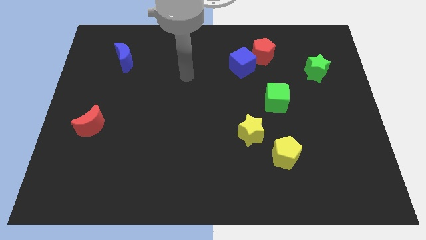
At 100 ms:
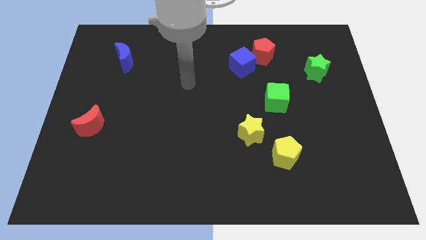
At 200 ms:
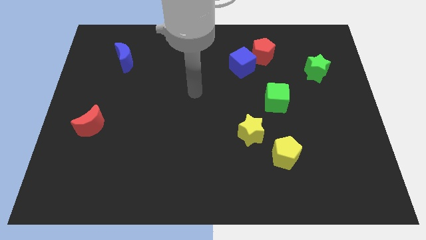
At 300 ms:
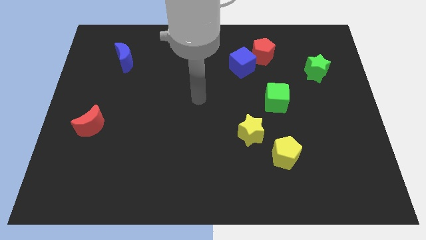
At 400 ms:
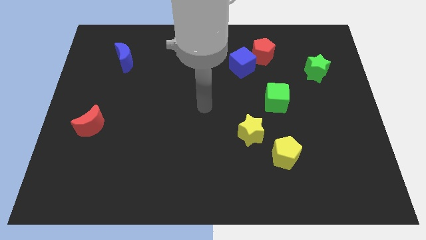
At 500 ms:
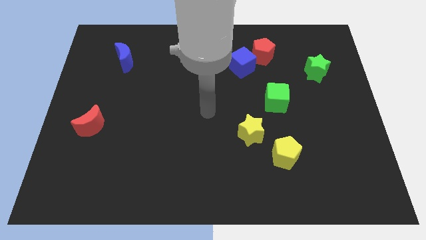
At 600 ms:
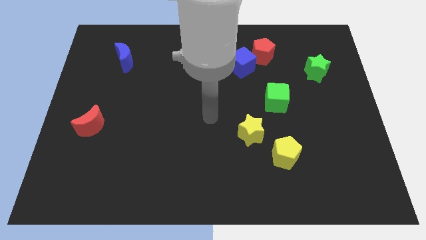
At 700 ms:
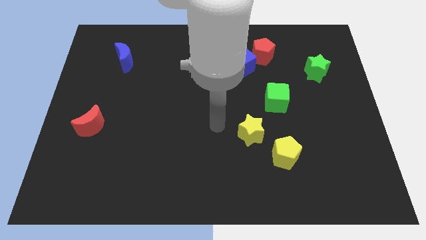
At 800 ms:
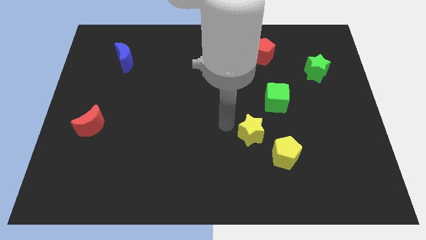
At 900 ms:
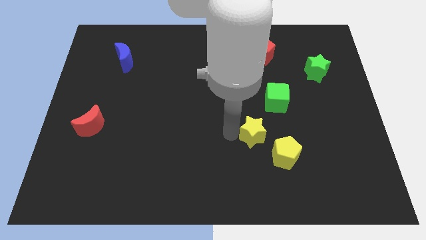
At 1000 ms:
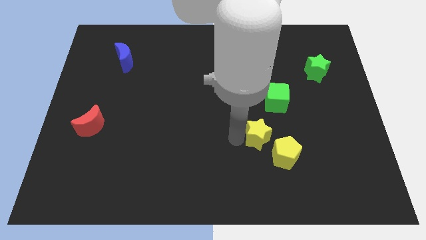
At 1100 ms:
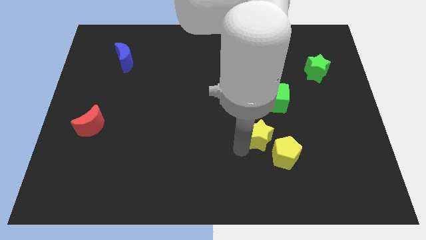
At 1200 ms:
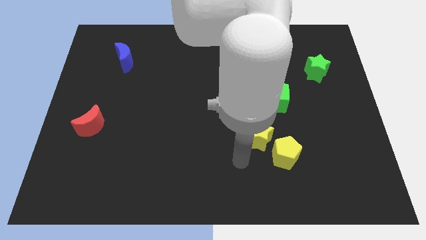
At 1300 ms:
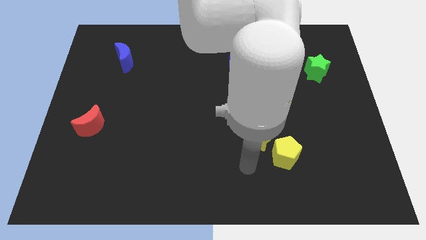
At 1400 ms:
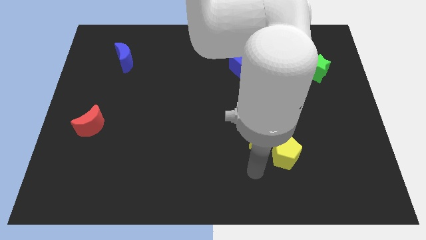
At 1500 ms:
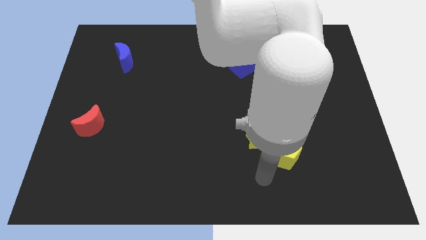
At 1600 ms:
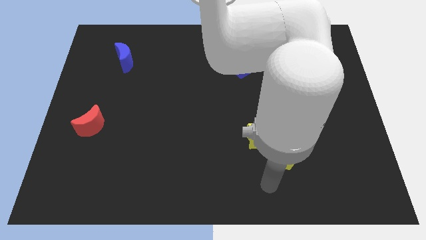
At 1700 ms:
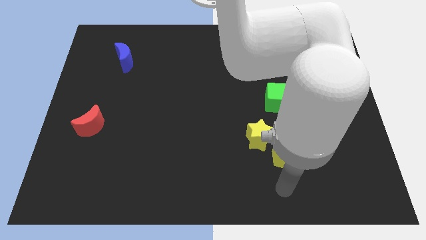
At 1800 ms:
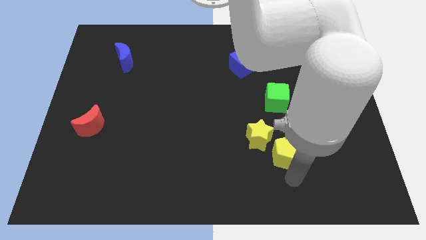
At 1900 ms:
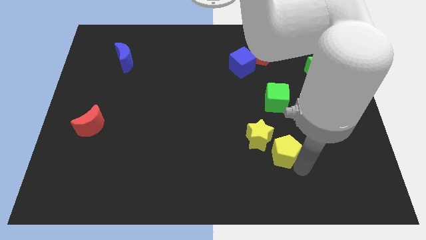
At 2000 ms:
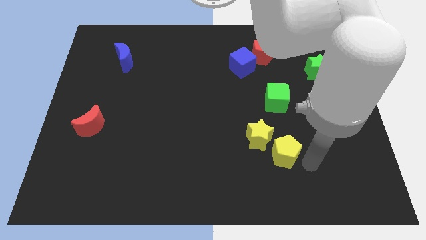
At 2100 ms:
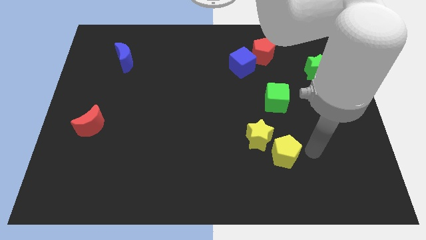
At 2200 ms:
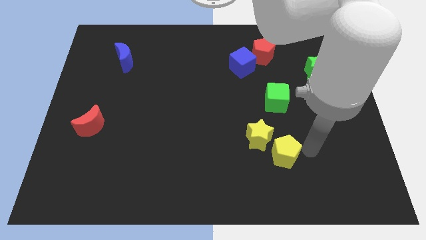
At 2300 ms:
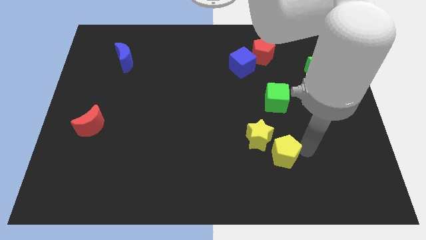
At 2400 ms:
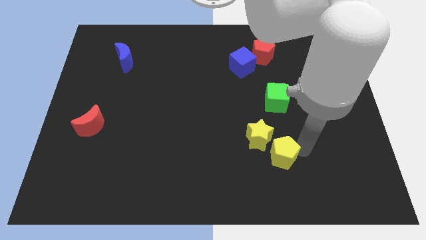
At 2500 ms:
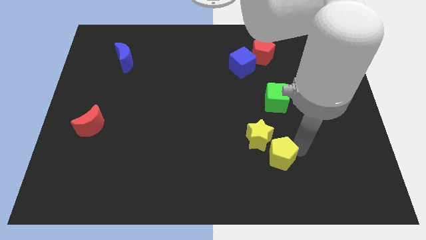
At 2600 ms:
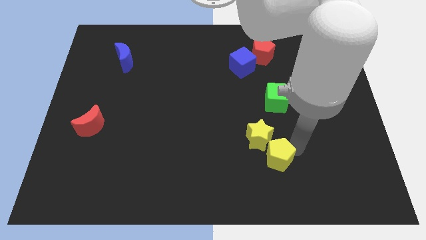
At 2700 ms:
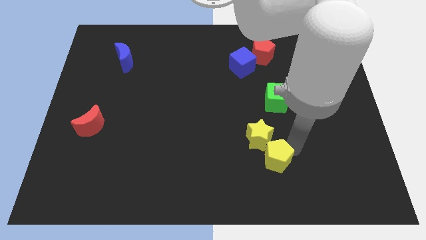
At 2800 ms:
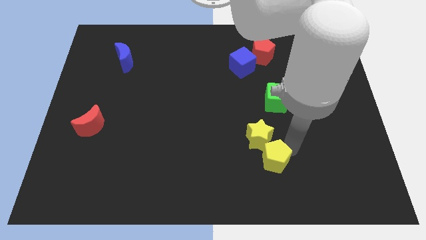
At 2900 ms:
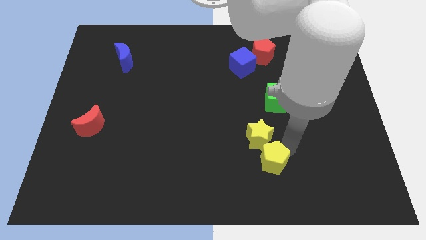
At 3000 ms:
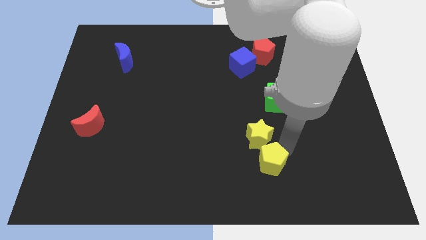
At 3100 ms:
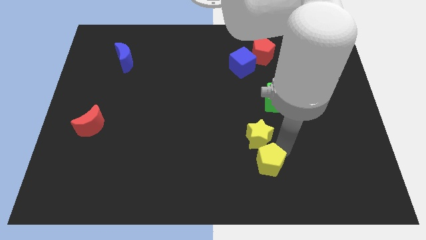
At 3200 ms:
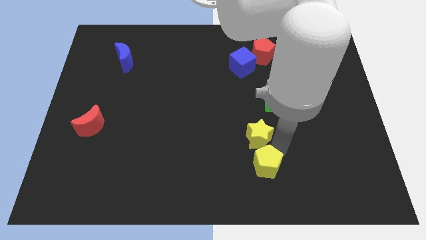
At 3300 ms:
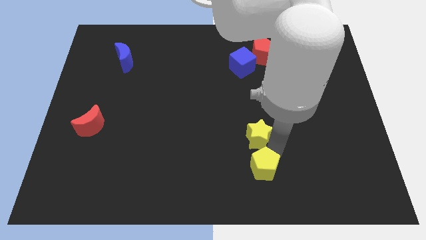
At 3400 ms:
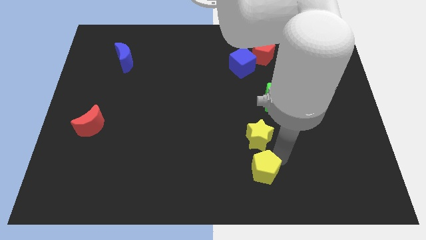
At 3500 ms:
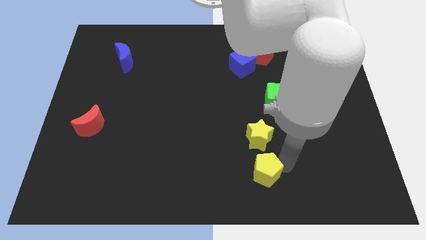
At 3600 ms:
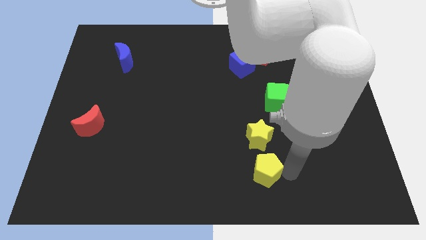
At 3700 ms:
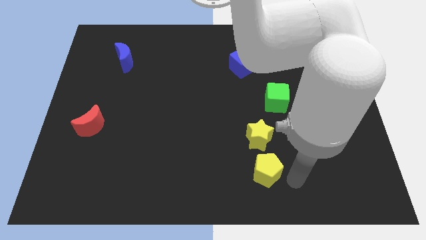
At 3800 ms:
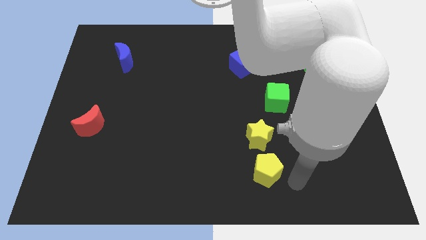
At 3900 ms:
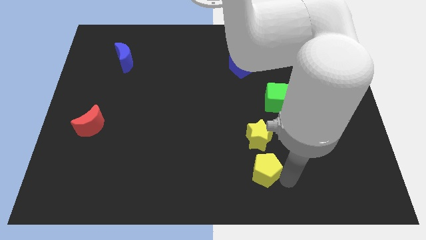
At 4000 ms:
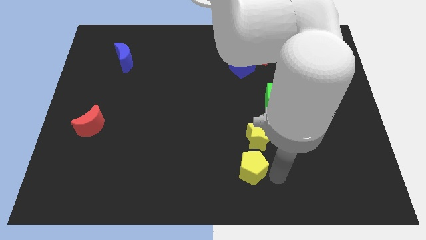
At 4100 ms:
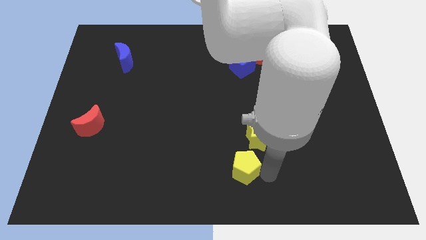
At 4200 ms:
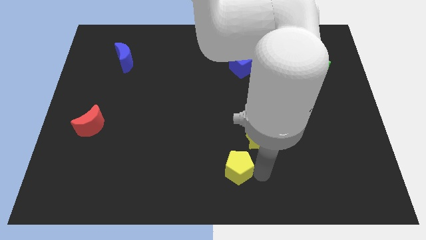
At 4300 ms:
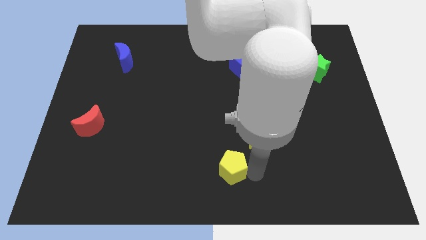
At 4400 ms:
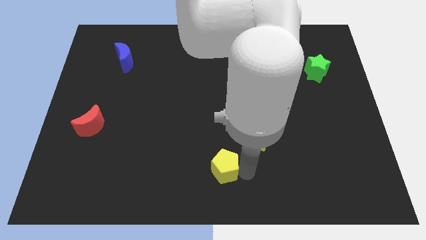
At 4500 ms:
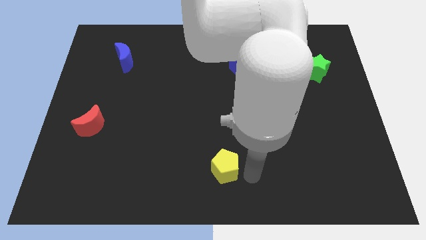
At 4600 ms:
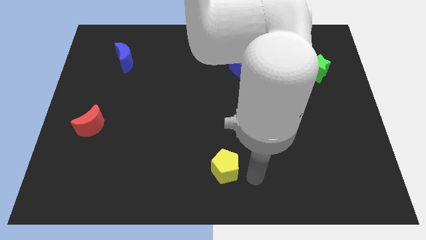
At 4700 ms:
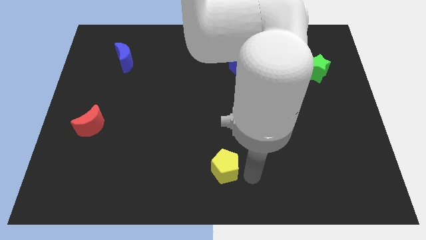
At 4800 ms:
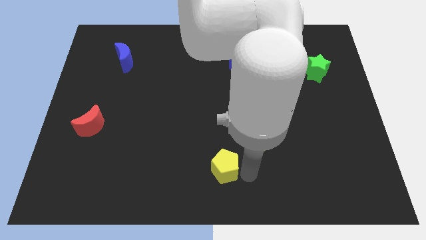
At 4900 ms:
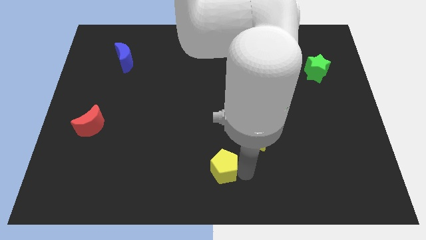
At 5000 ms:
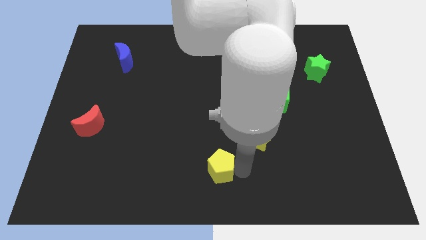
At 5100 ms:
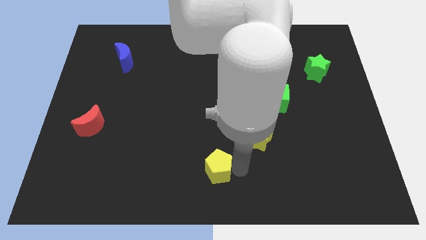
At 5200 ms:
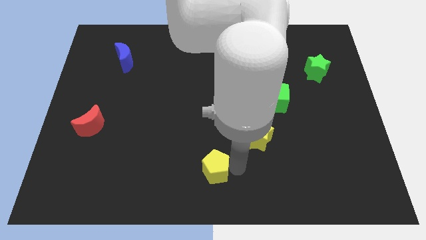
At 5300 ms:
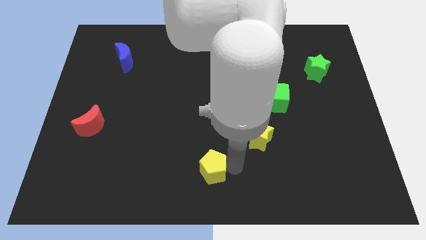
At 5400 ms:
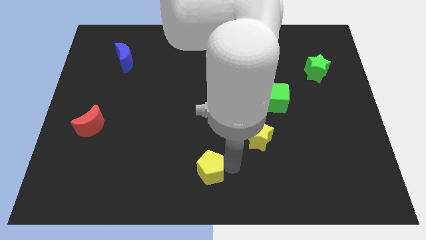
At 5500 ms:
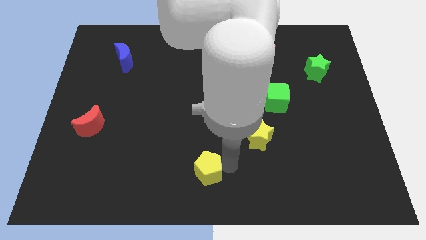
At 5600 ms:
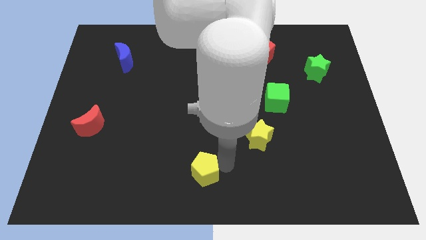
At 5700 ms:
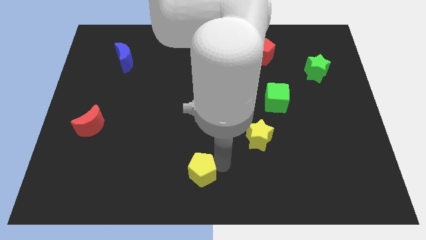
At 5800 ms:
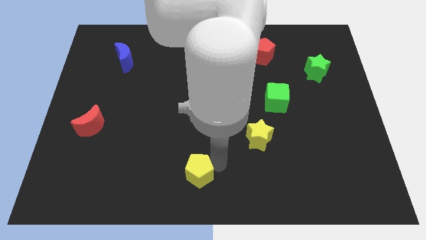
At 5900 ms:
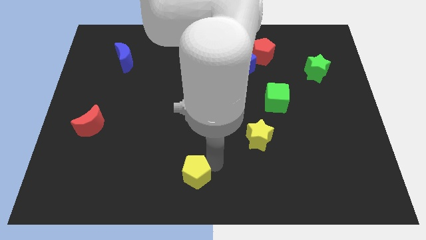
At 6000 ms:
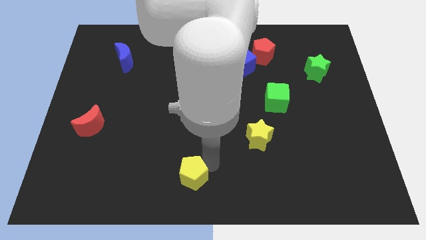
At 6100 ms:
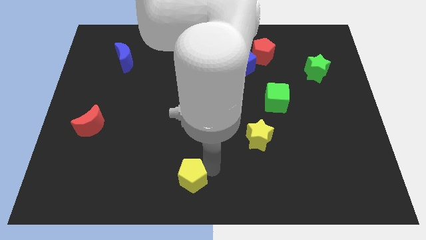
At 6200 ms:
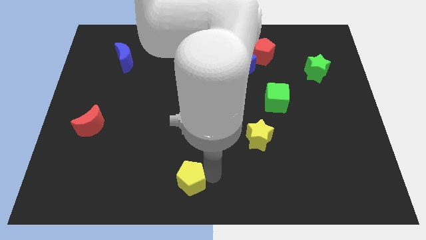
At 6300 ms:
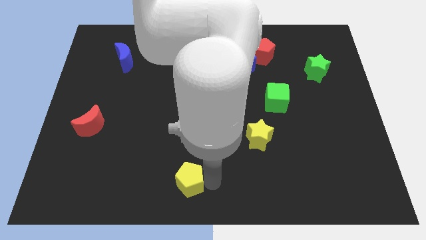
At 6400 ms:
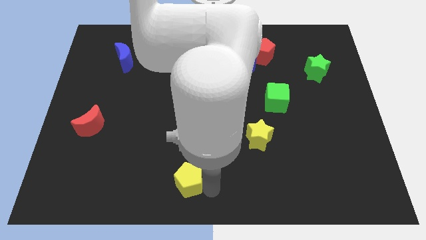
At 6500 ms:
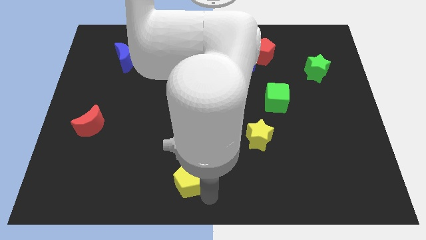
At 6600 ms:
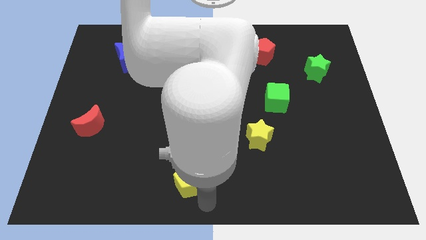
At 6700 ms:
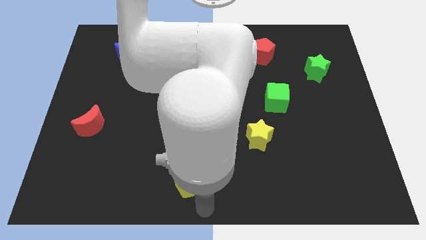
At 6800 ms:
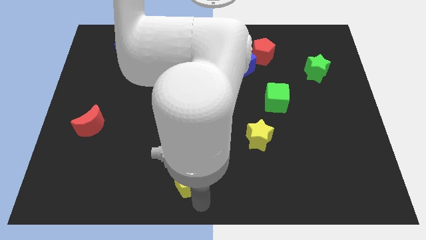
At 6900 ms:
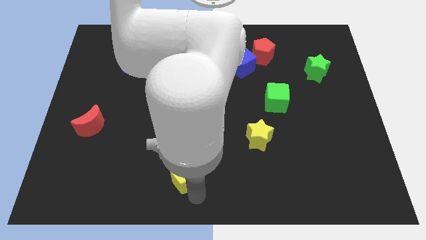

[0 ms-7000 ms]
push the yellow pentagon left

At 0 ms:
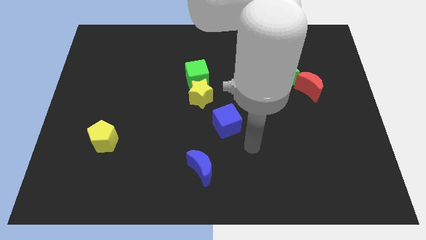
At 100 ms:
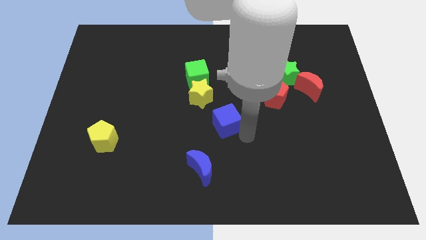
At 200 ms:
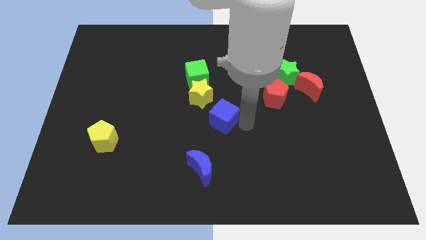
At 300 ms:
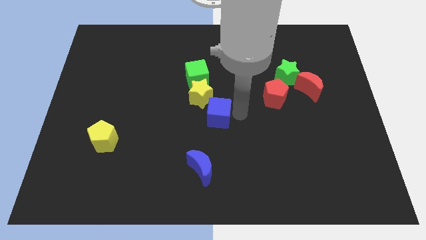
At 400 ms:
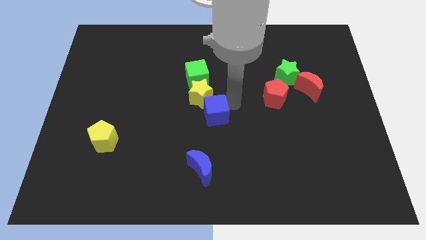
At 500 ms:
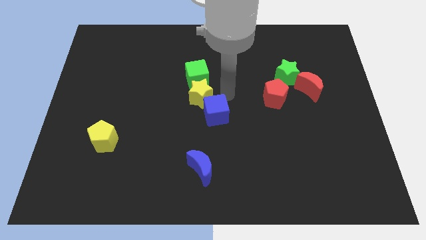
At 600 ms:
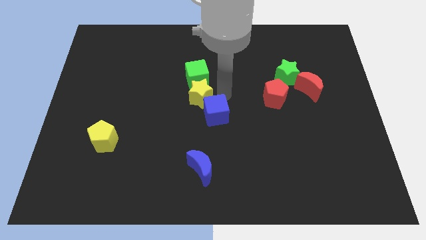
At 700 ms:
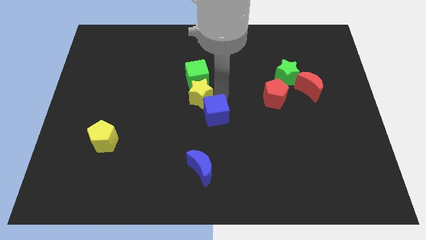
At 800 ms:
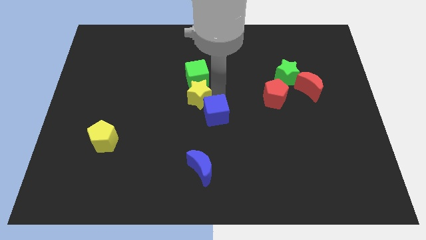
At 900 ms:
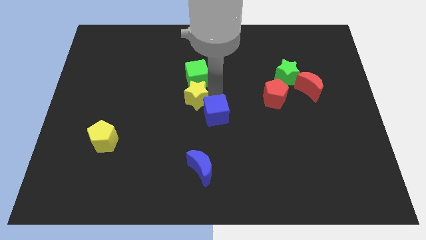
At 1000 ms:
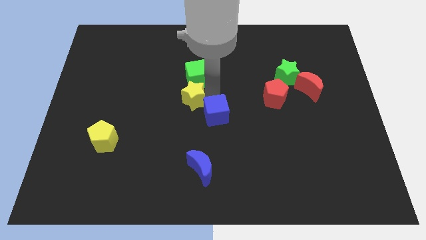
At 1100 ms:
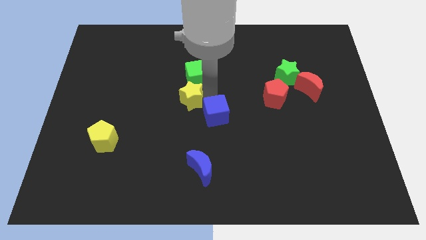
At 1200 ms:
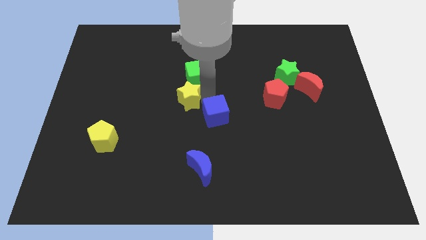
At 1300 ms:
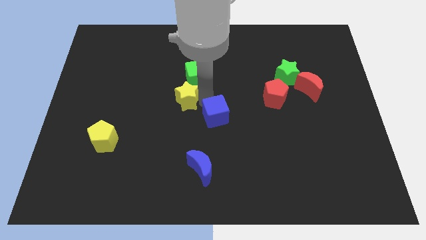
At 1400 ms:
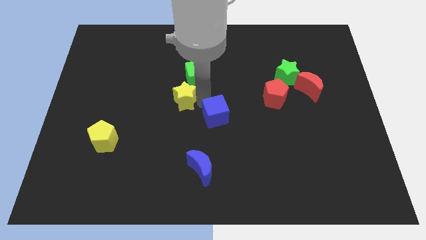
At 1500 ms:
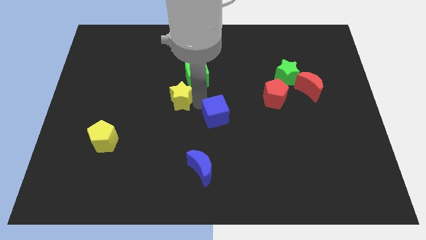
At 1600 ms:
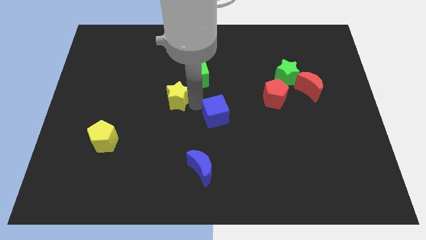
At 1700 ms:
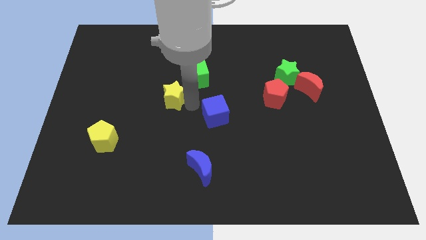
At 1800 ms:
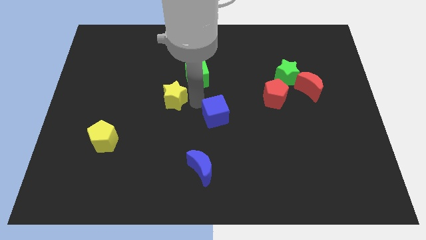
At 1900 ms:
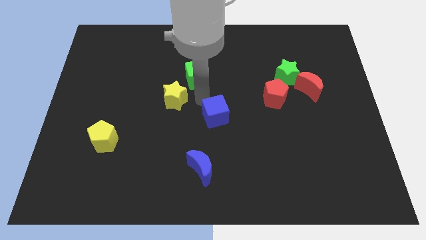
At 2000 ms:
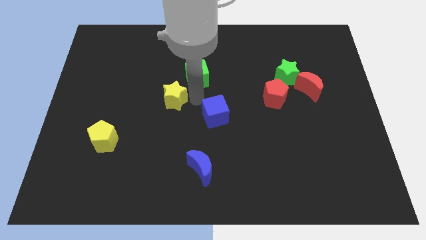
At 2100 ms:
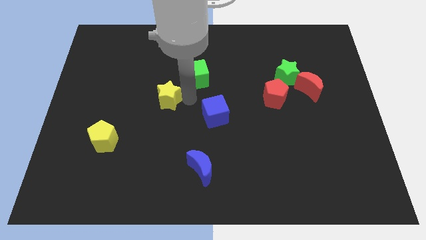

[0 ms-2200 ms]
push the yellow star to the left somewhat
